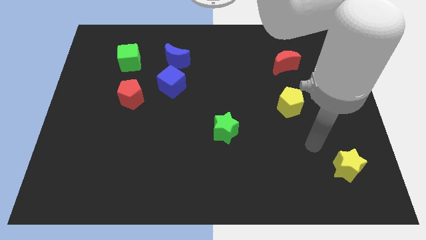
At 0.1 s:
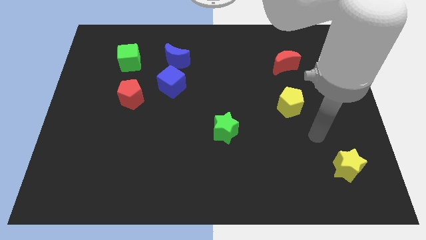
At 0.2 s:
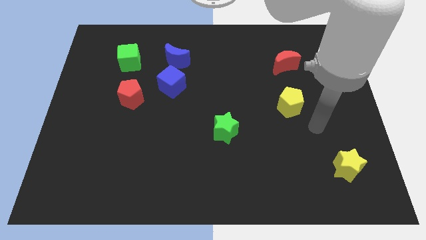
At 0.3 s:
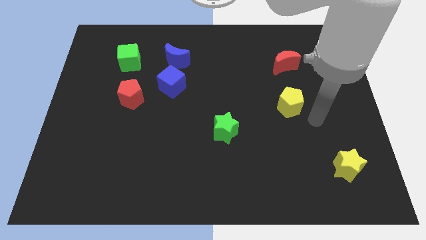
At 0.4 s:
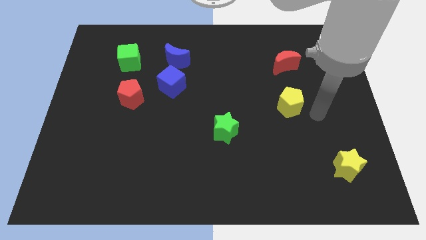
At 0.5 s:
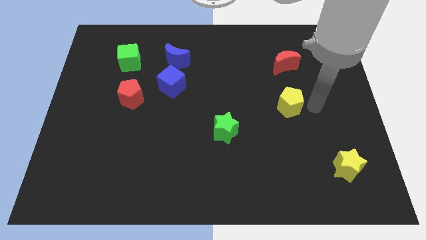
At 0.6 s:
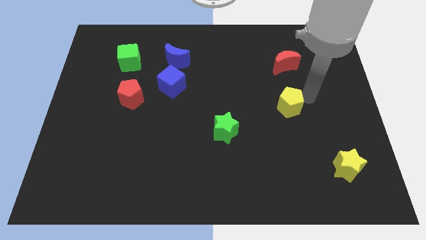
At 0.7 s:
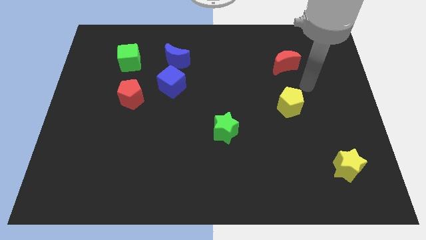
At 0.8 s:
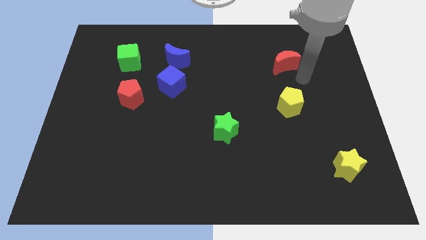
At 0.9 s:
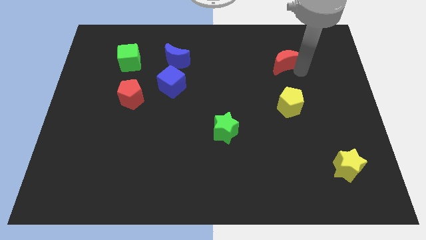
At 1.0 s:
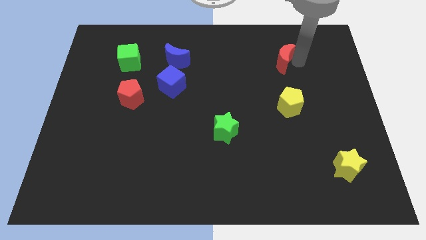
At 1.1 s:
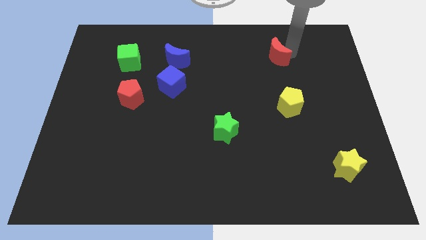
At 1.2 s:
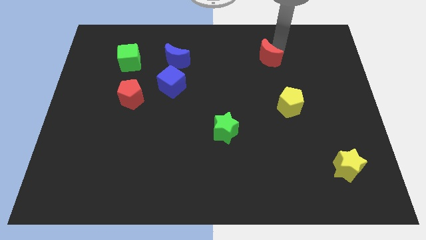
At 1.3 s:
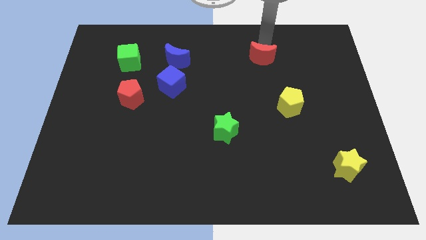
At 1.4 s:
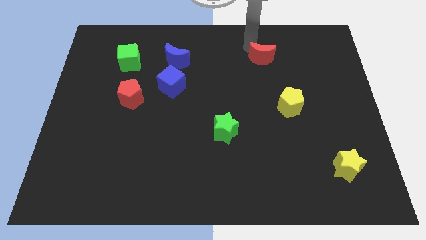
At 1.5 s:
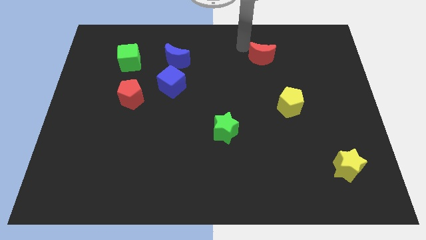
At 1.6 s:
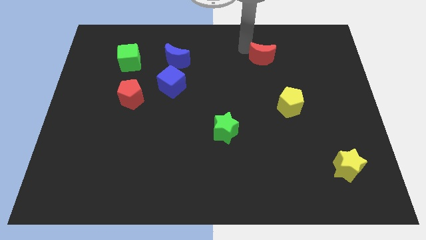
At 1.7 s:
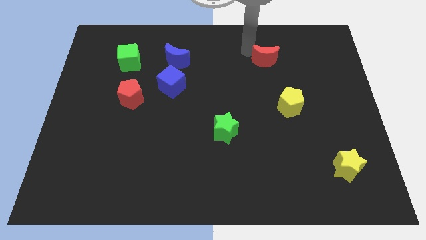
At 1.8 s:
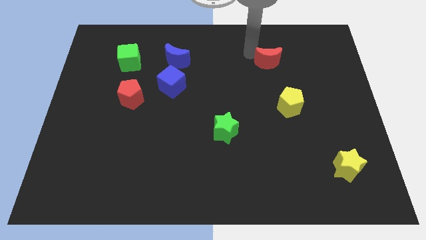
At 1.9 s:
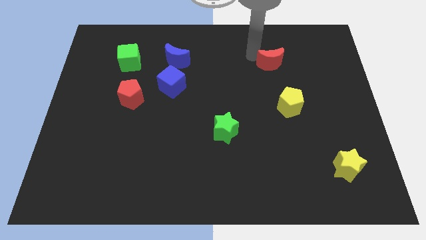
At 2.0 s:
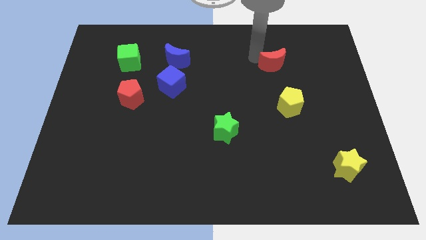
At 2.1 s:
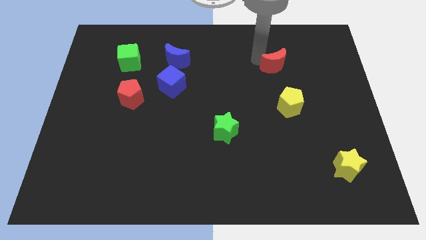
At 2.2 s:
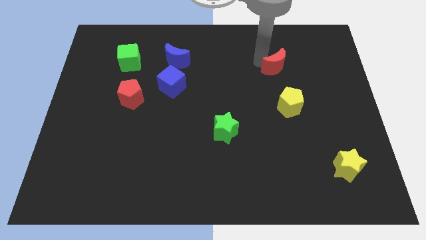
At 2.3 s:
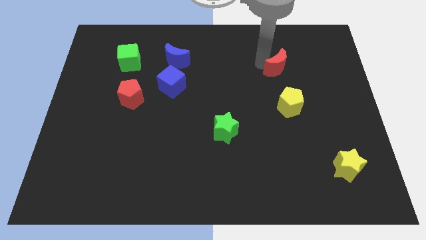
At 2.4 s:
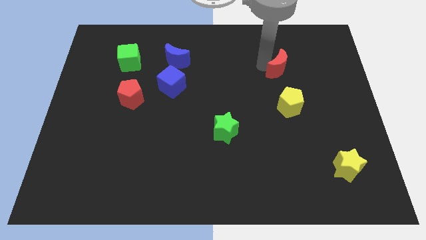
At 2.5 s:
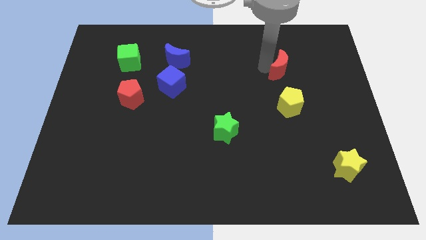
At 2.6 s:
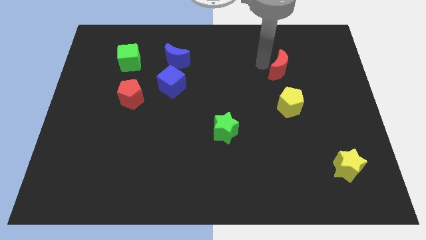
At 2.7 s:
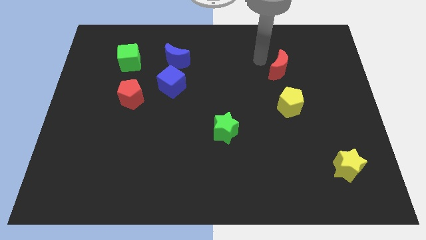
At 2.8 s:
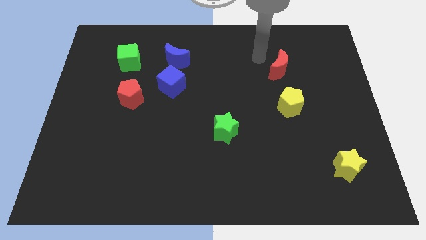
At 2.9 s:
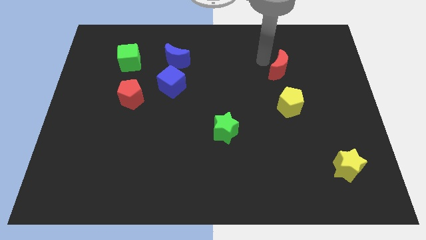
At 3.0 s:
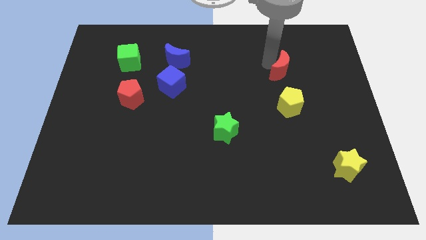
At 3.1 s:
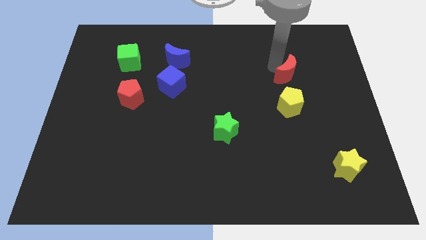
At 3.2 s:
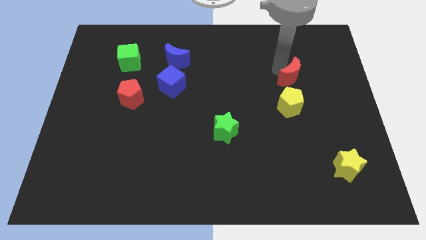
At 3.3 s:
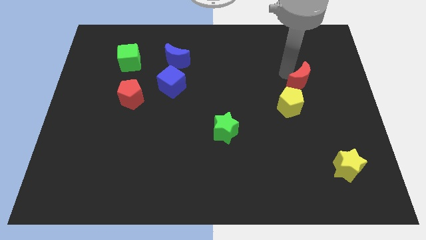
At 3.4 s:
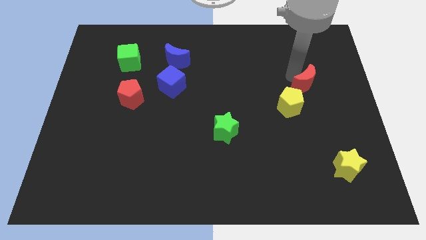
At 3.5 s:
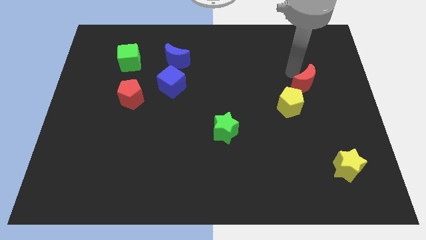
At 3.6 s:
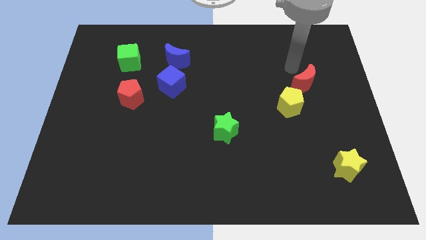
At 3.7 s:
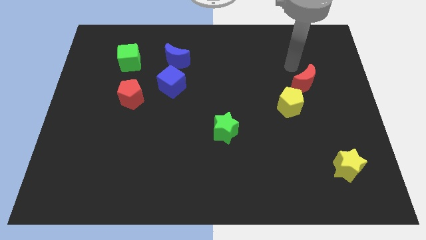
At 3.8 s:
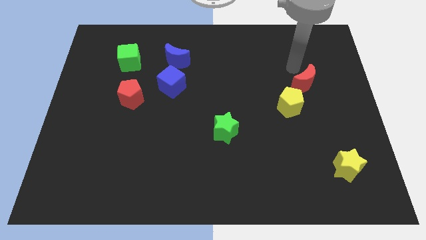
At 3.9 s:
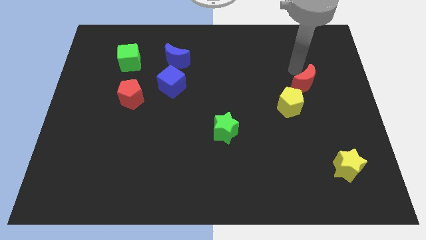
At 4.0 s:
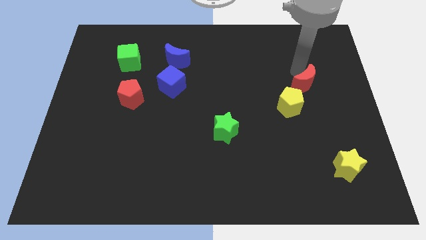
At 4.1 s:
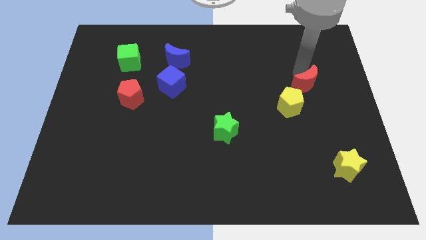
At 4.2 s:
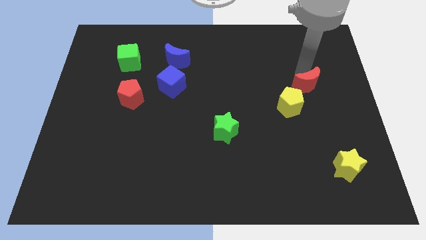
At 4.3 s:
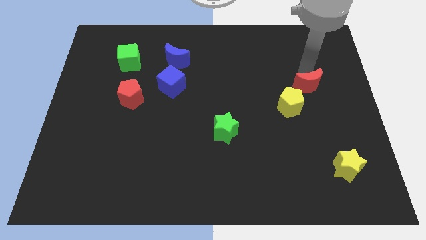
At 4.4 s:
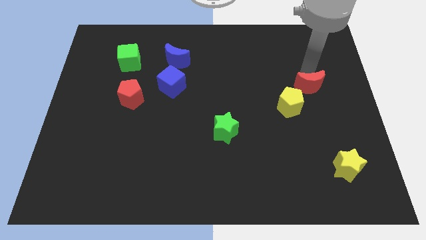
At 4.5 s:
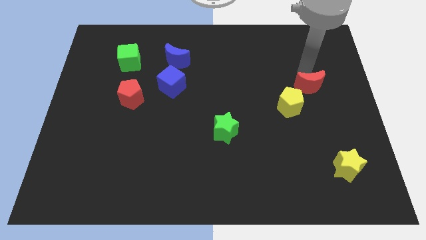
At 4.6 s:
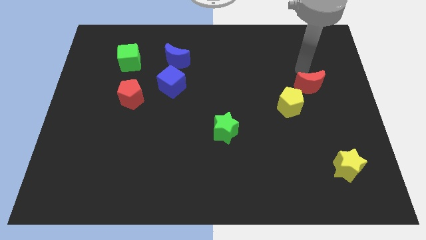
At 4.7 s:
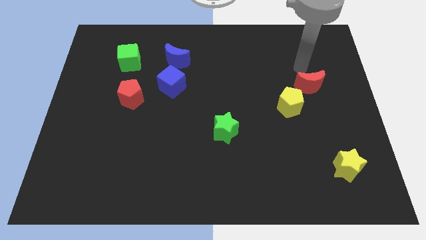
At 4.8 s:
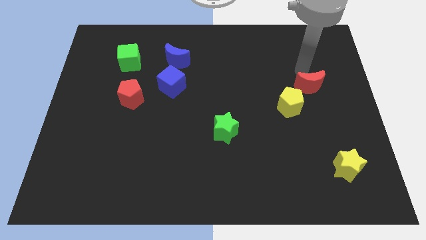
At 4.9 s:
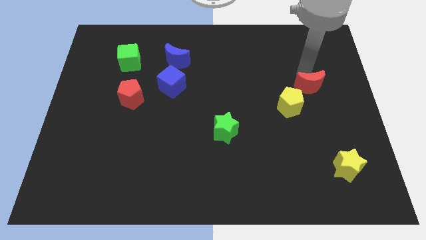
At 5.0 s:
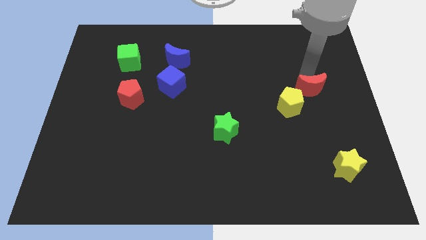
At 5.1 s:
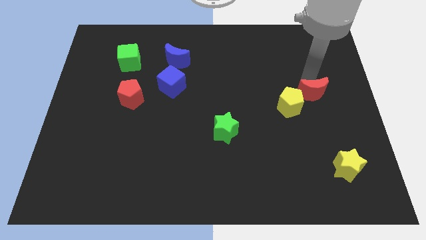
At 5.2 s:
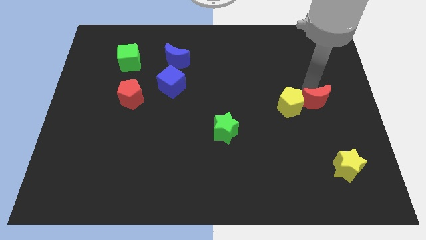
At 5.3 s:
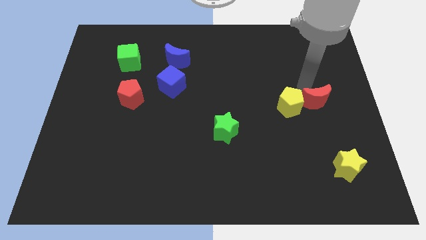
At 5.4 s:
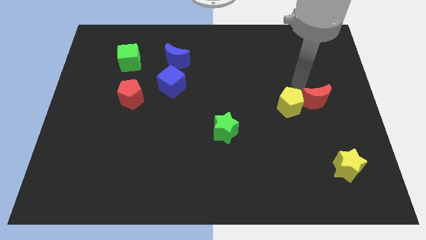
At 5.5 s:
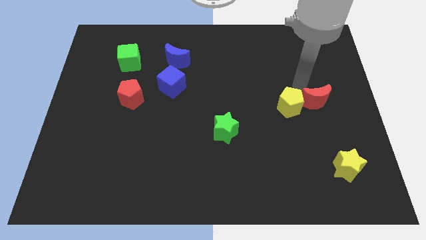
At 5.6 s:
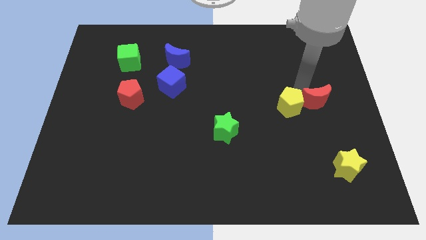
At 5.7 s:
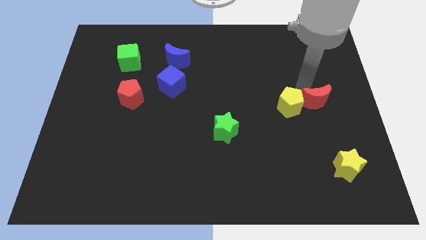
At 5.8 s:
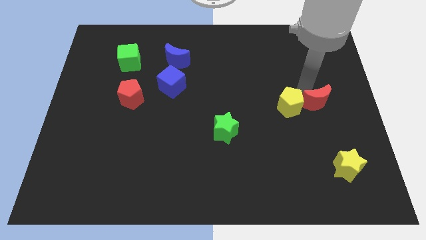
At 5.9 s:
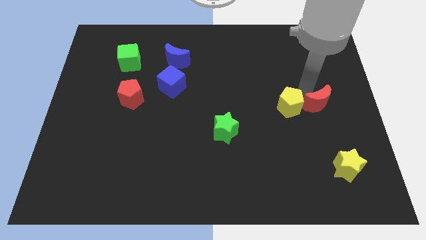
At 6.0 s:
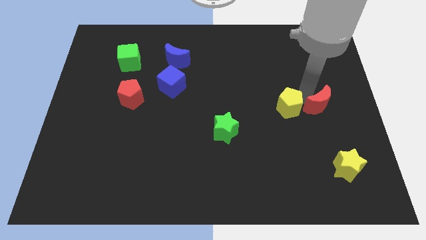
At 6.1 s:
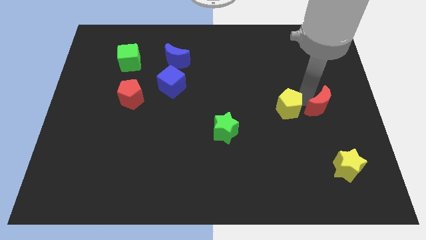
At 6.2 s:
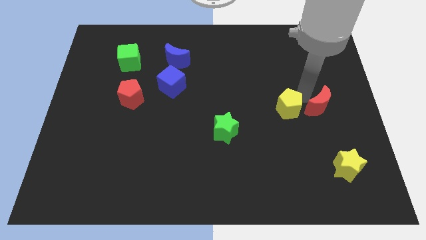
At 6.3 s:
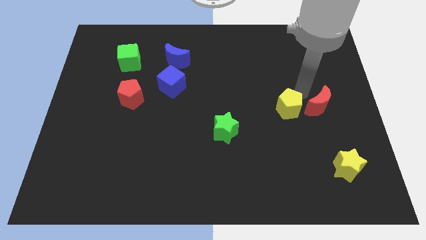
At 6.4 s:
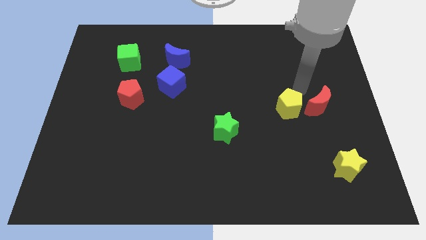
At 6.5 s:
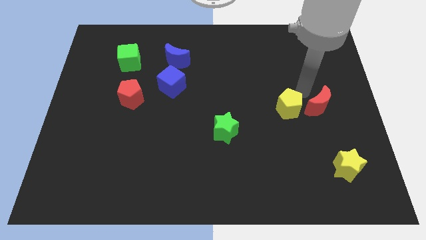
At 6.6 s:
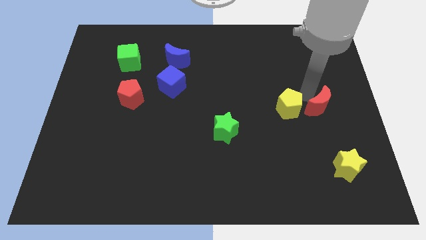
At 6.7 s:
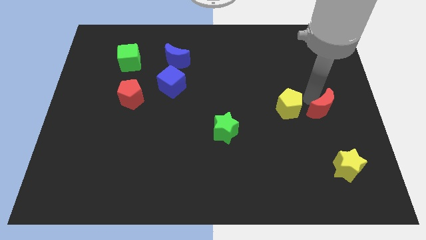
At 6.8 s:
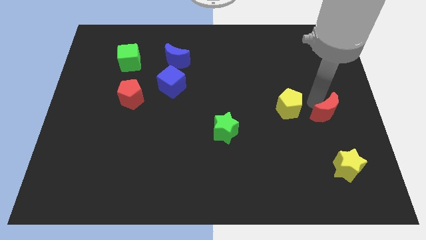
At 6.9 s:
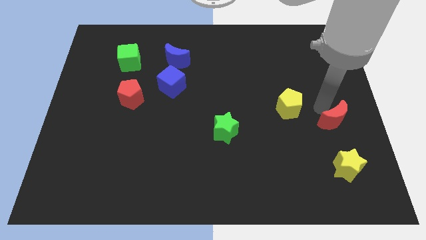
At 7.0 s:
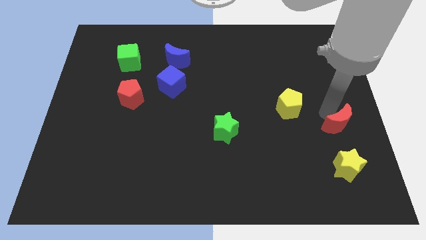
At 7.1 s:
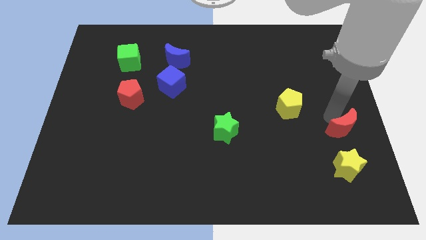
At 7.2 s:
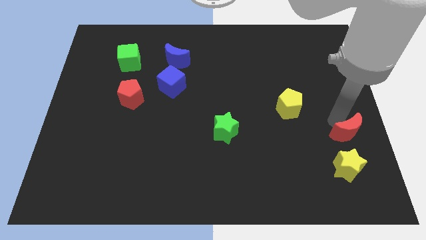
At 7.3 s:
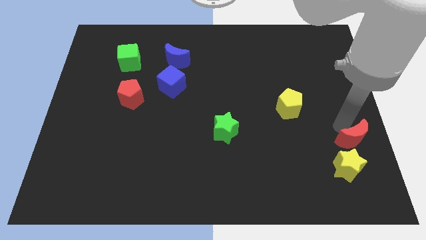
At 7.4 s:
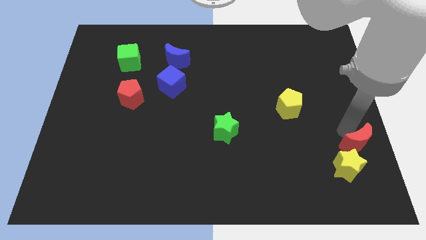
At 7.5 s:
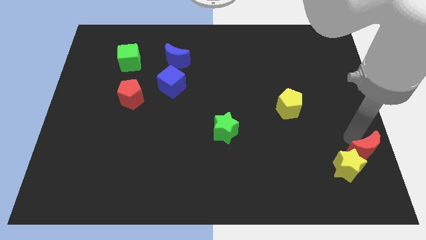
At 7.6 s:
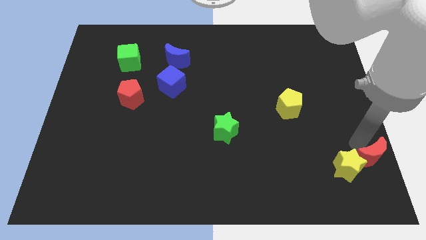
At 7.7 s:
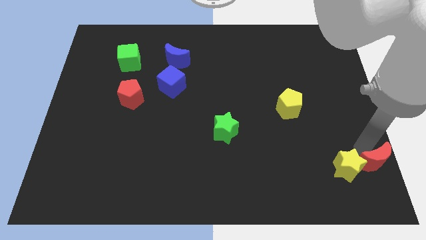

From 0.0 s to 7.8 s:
slide the red moon to the bottom right corner
